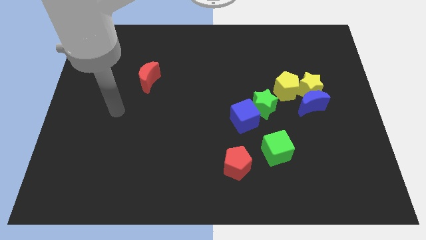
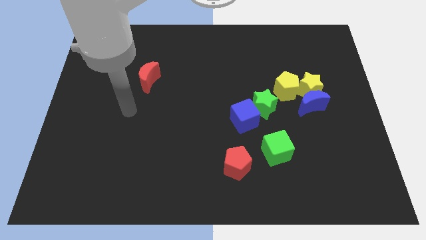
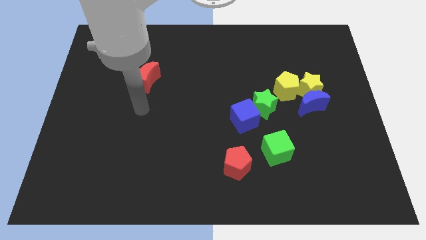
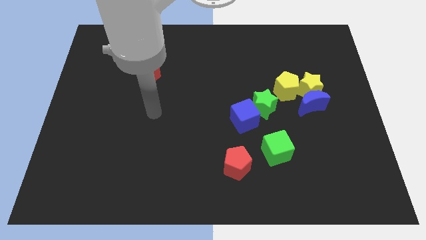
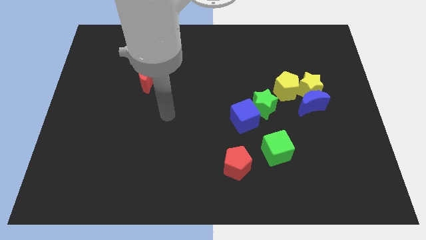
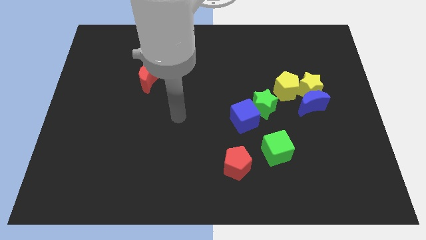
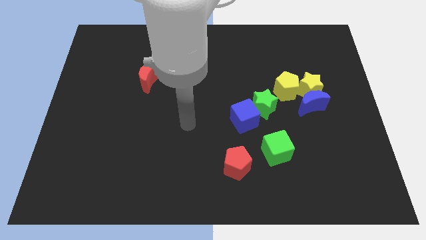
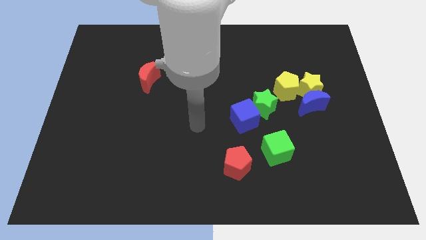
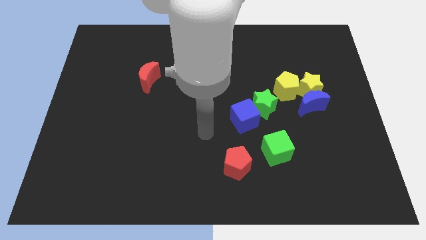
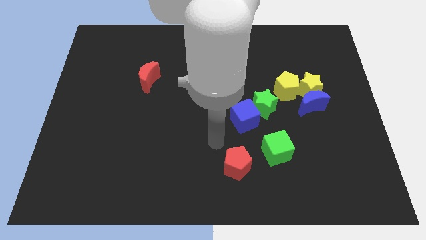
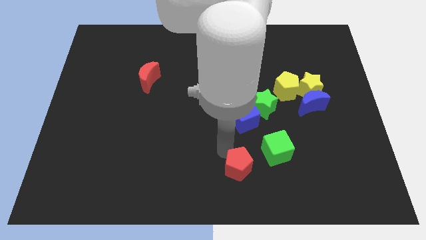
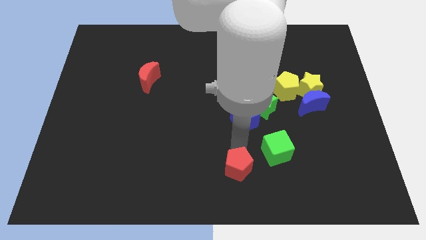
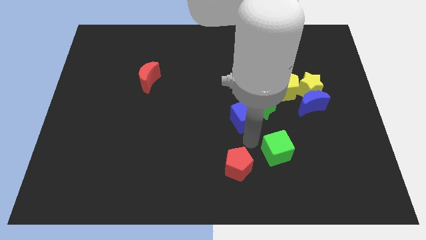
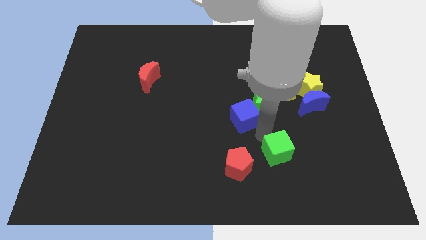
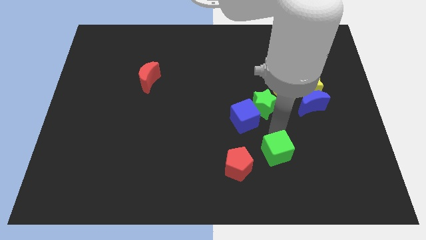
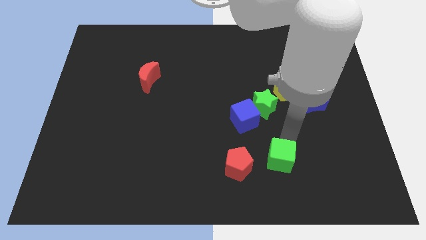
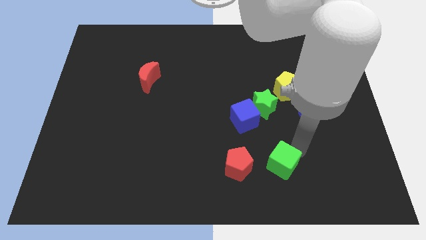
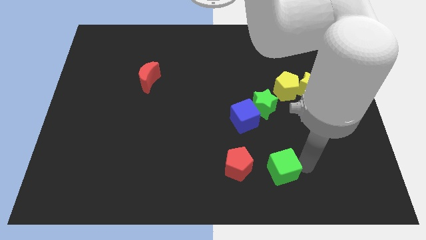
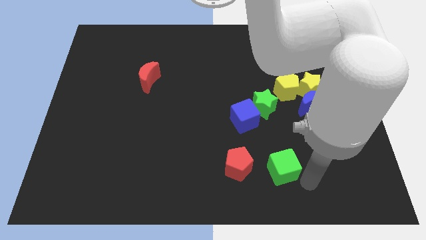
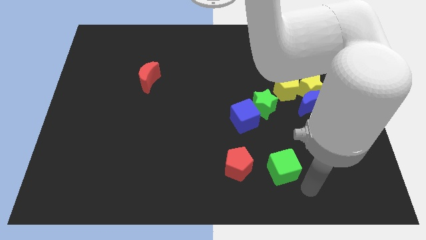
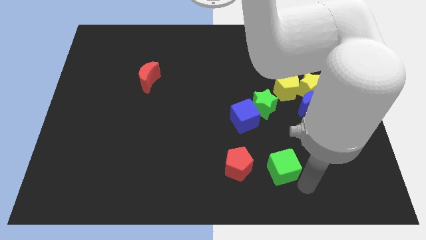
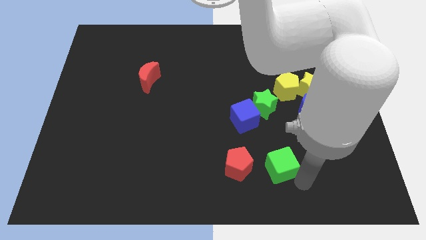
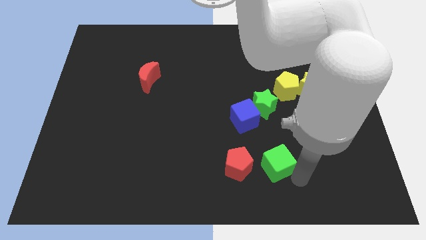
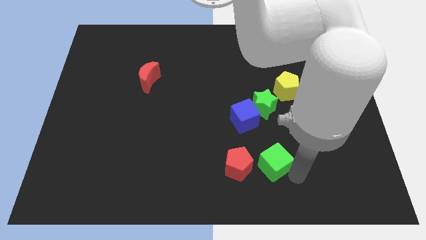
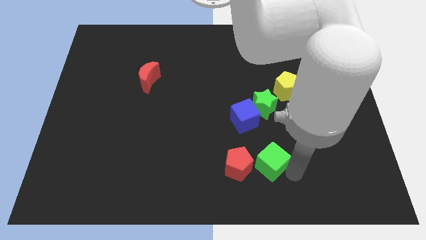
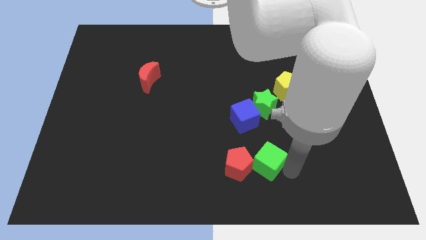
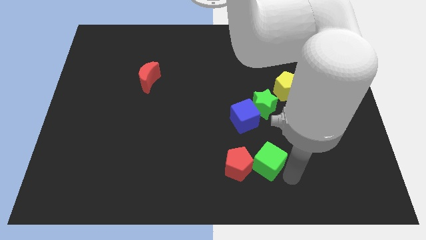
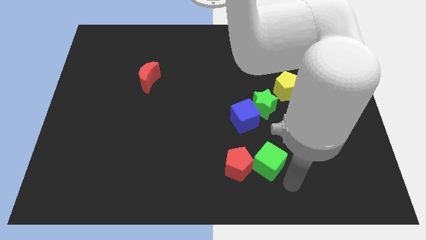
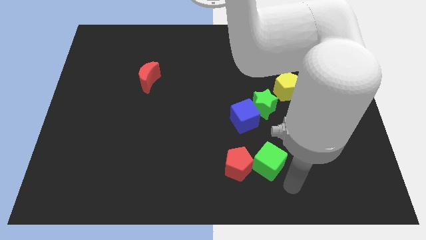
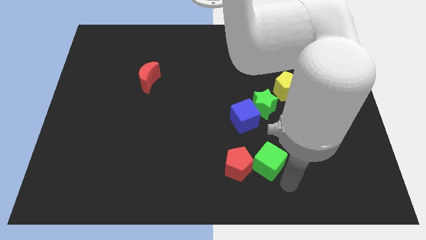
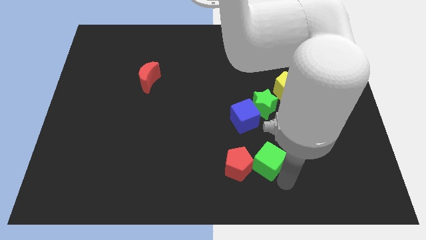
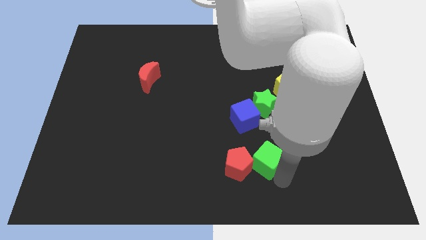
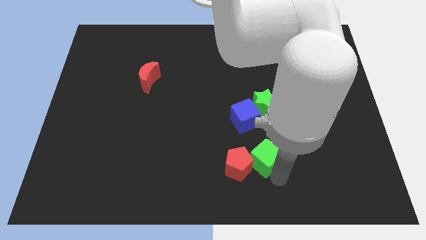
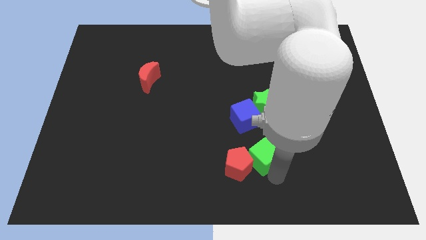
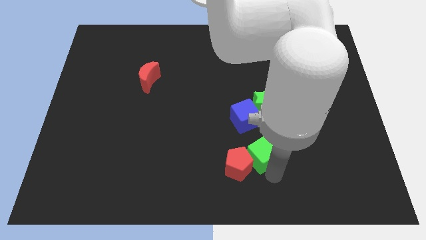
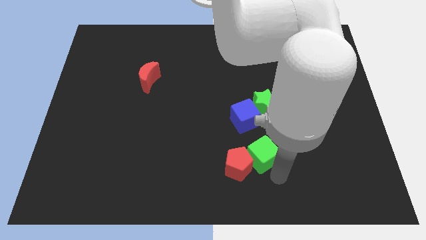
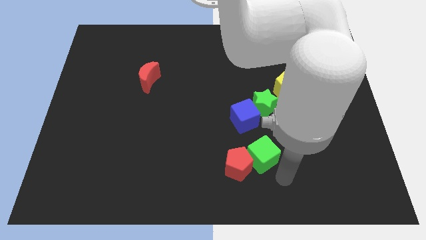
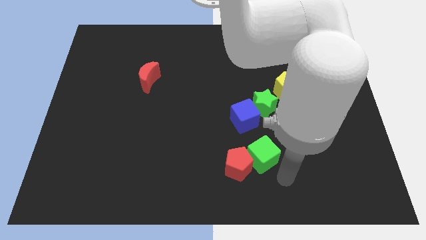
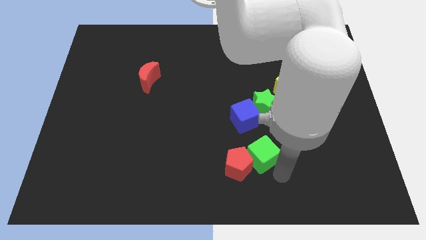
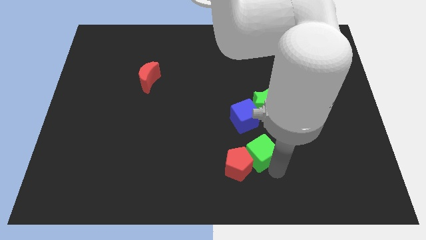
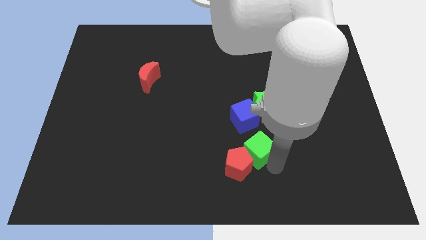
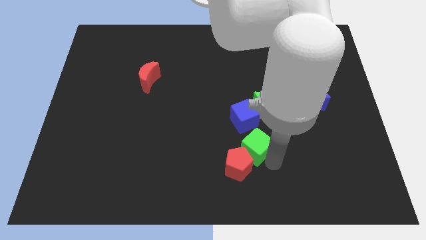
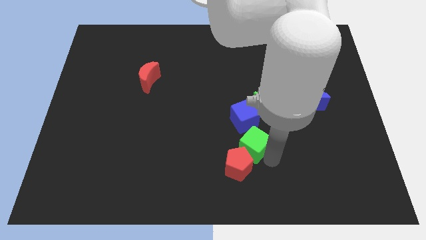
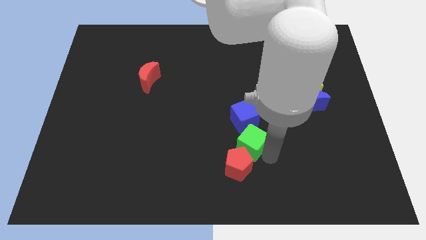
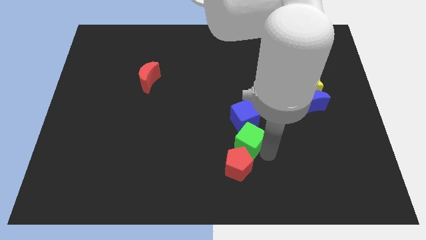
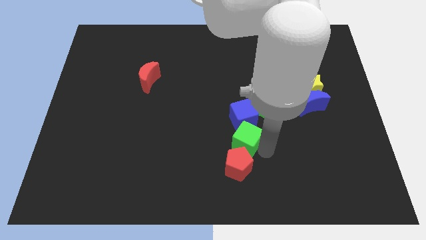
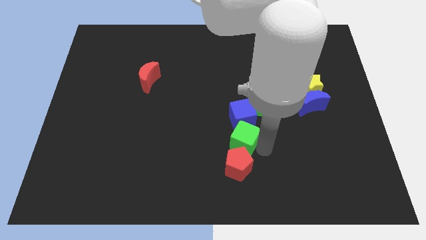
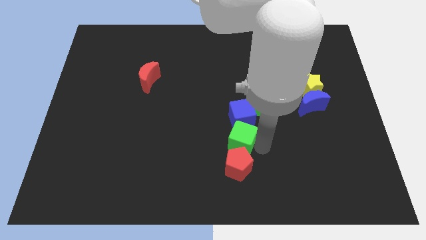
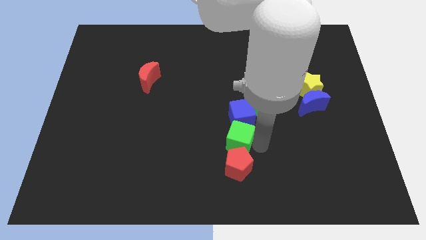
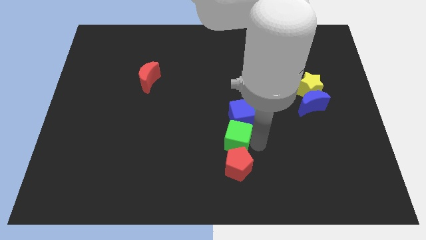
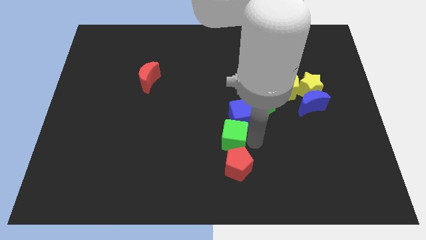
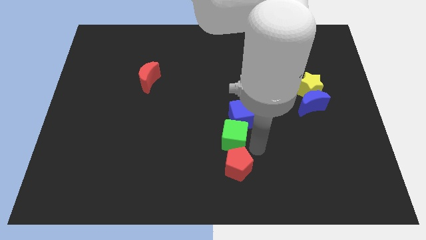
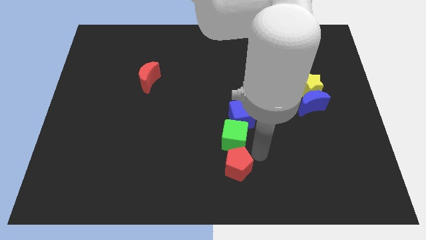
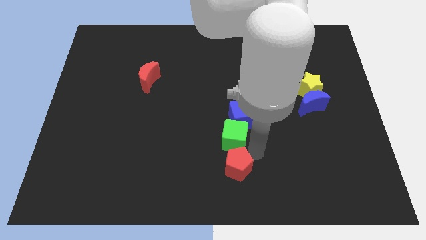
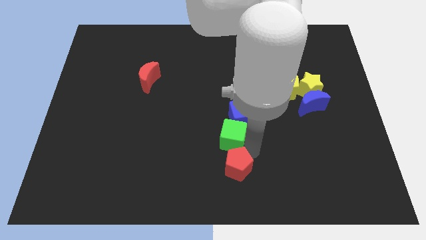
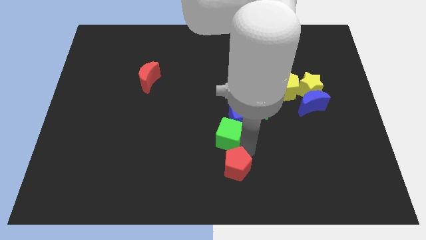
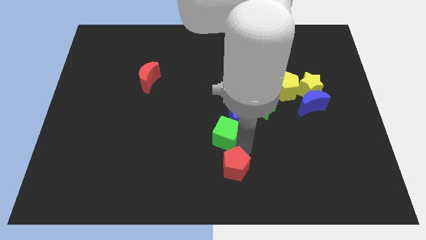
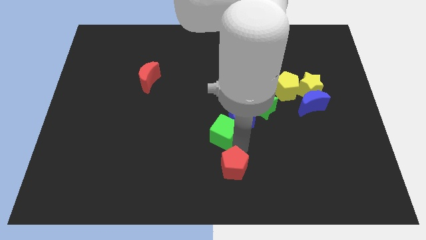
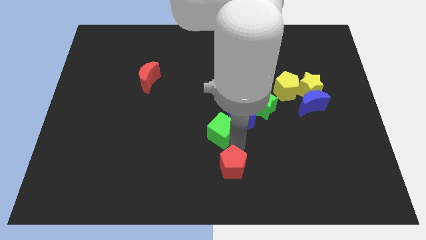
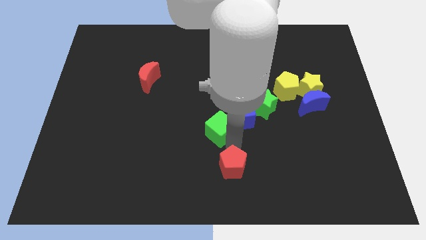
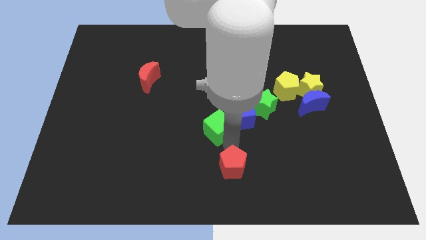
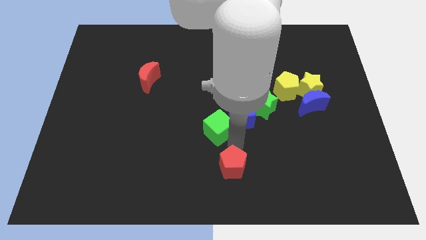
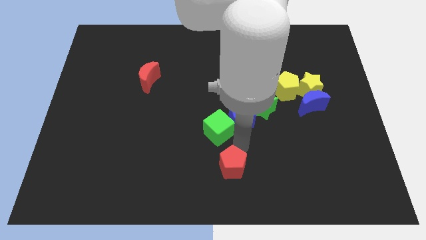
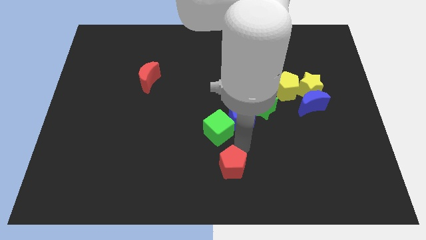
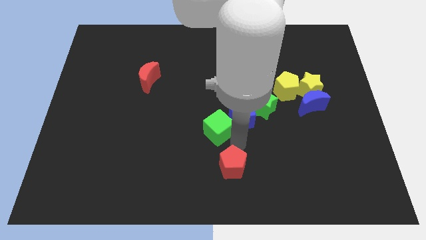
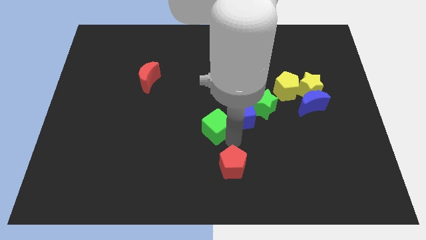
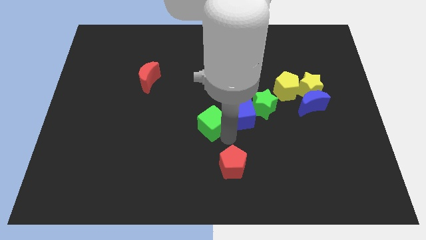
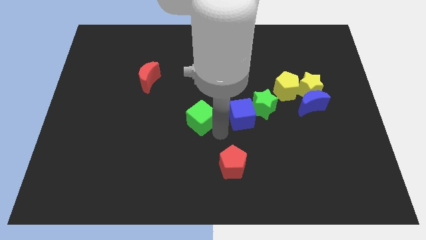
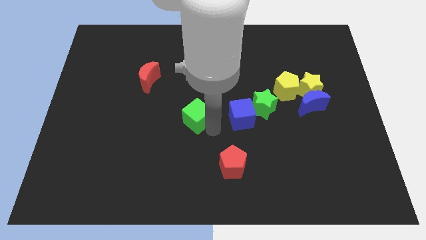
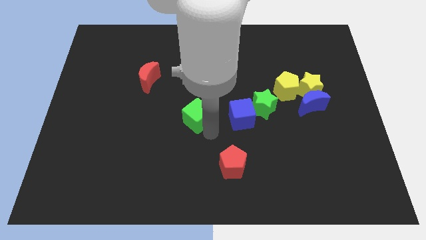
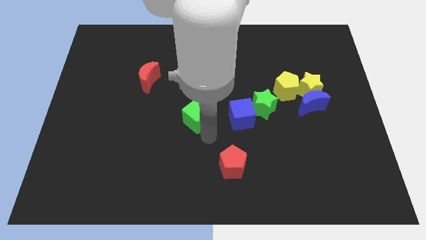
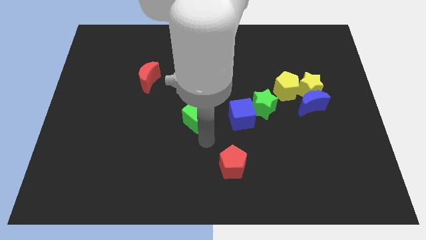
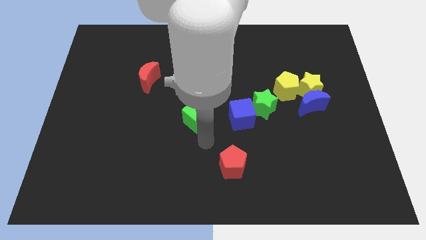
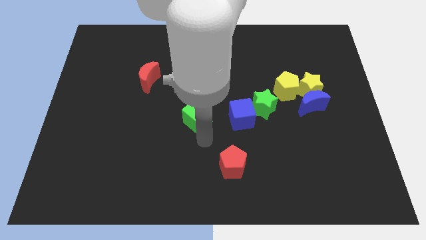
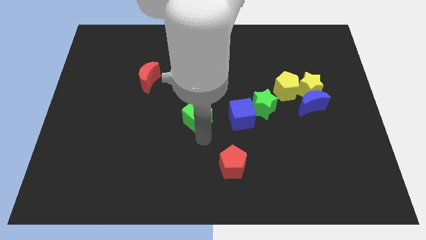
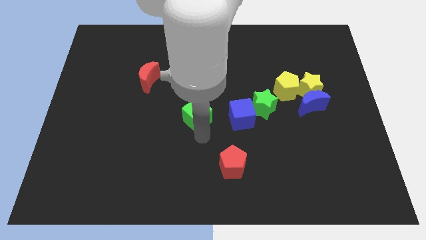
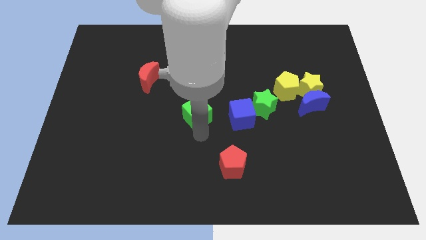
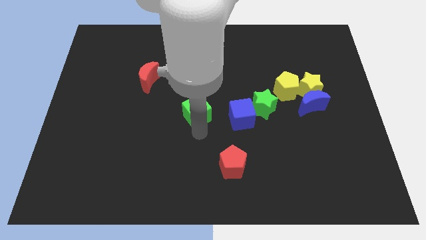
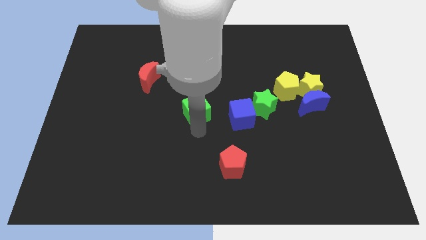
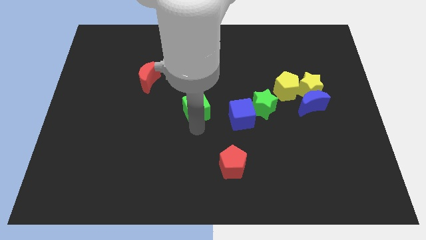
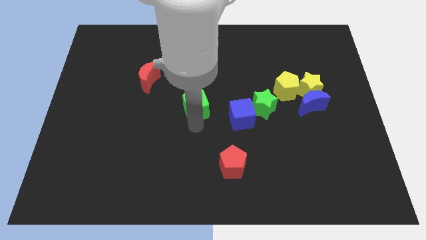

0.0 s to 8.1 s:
move the green cube up and then to the left
